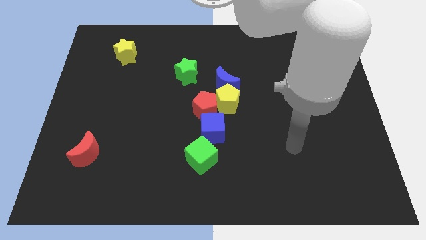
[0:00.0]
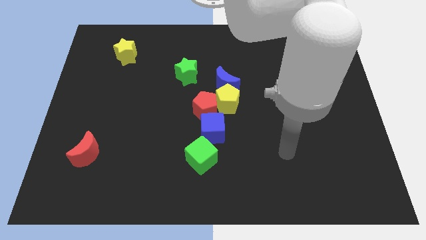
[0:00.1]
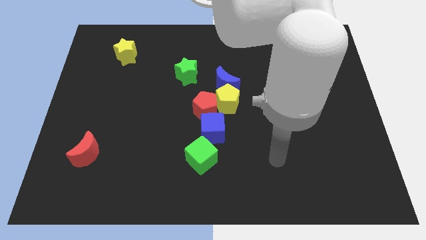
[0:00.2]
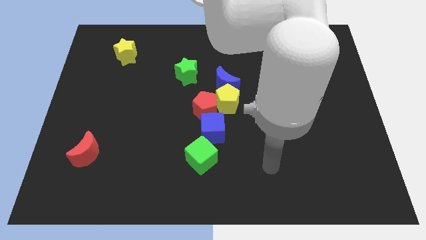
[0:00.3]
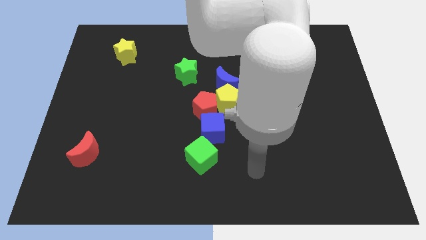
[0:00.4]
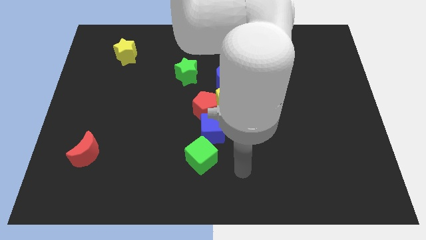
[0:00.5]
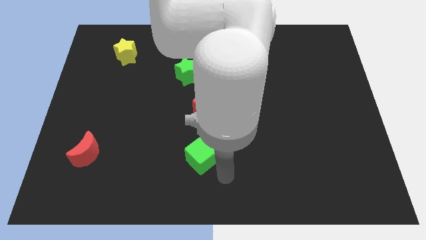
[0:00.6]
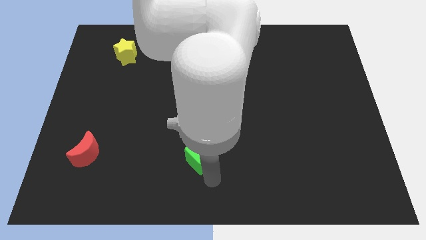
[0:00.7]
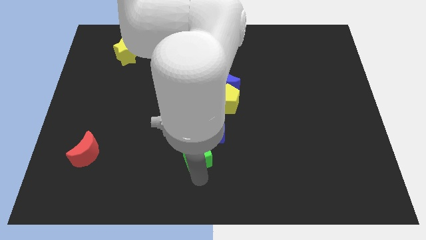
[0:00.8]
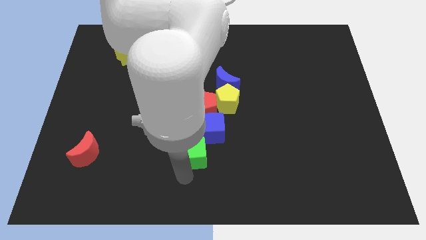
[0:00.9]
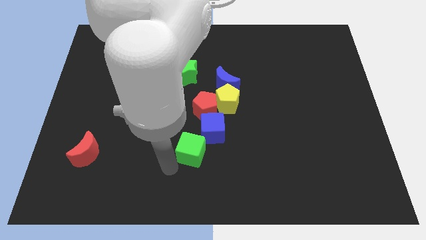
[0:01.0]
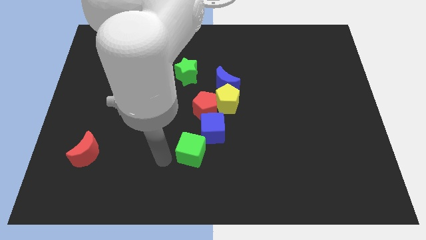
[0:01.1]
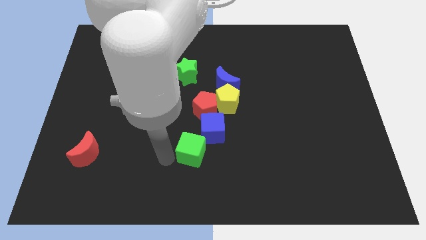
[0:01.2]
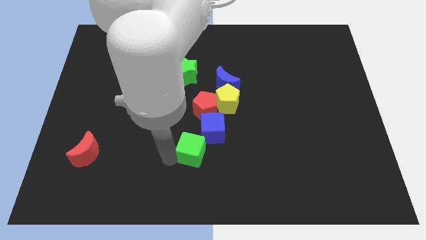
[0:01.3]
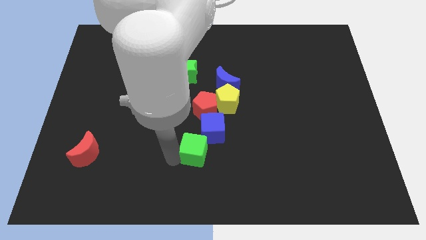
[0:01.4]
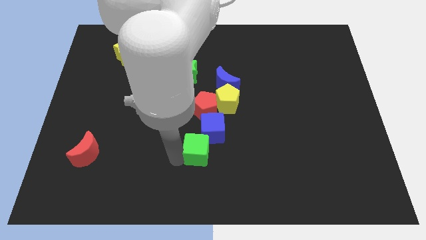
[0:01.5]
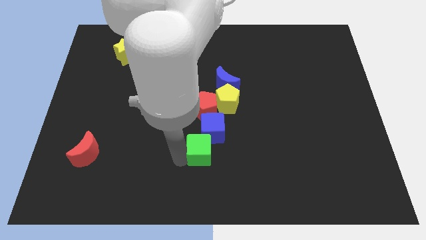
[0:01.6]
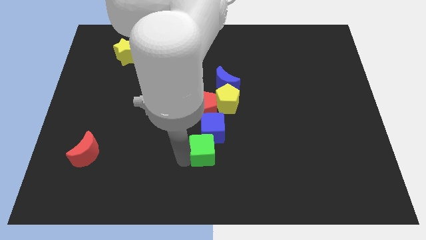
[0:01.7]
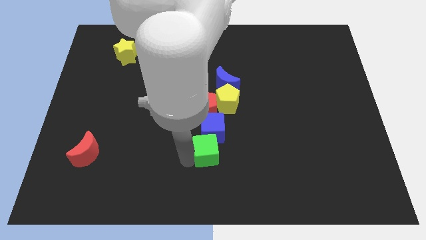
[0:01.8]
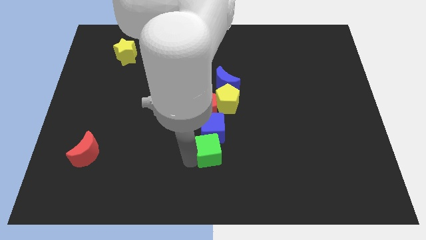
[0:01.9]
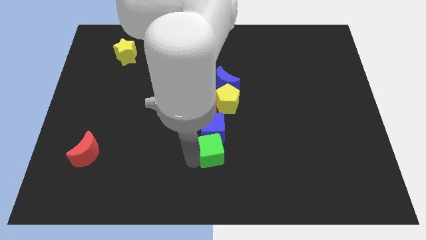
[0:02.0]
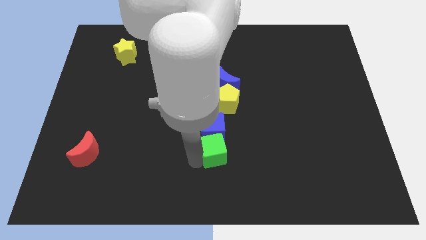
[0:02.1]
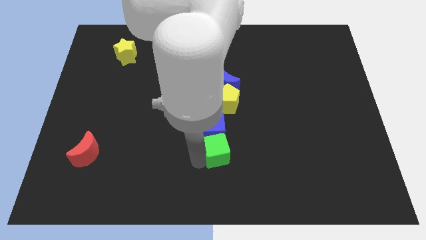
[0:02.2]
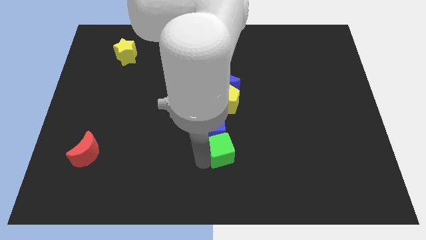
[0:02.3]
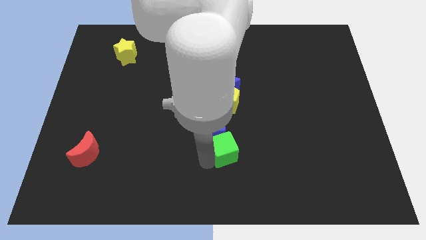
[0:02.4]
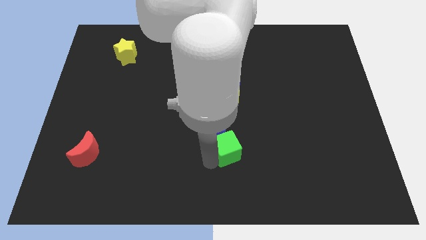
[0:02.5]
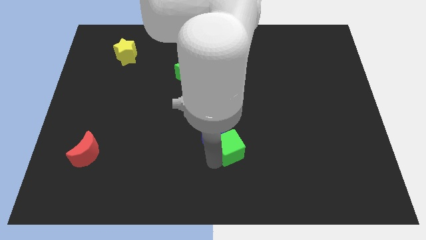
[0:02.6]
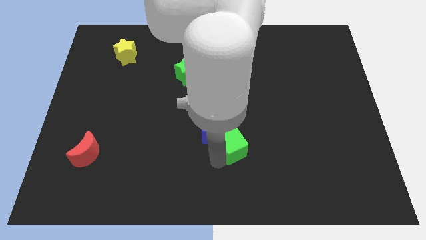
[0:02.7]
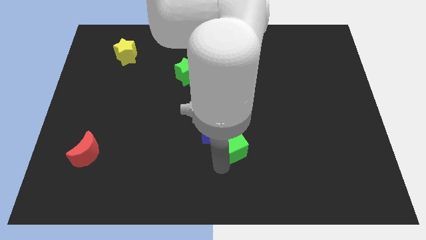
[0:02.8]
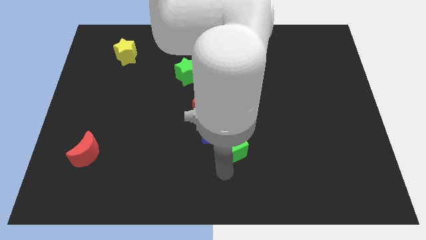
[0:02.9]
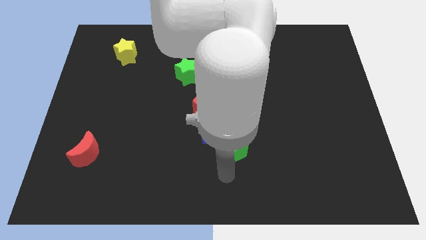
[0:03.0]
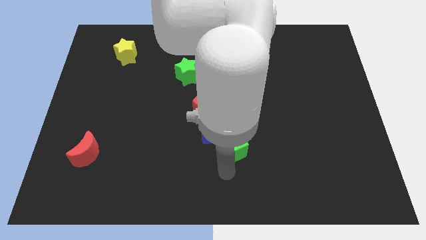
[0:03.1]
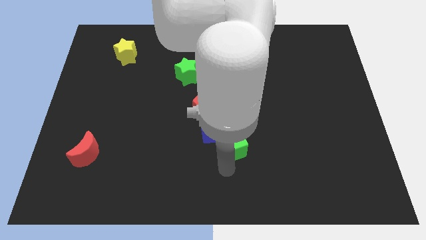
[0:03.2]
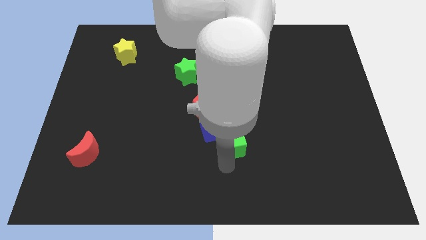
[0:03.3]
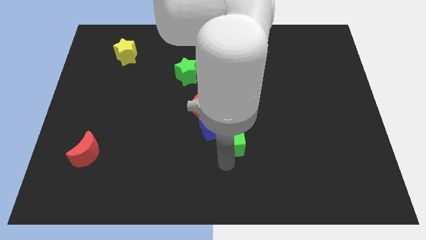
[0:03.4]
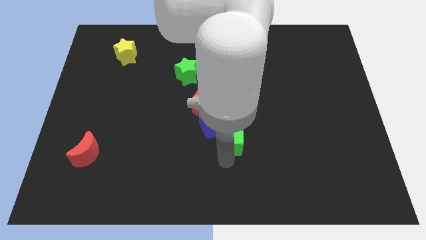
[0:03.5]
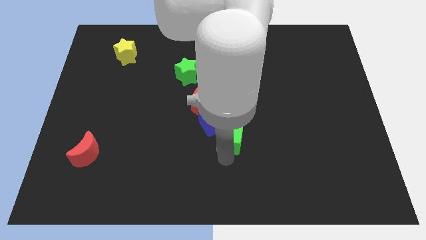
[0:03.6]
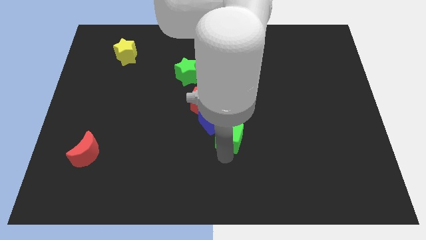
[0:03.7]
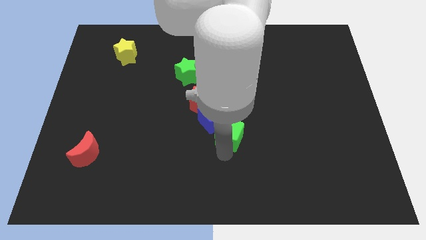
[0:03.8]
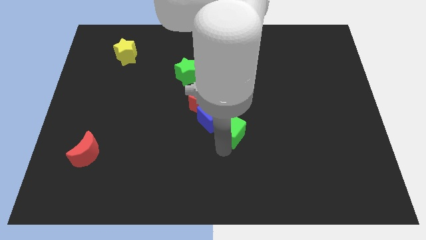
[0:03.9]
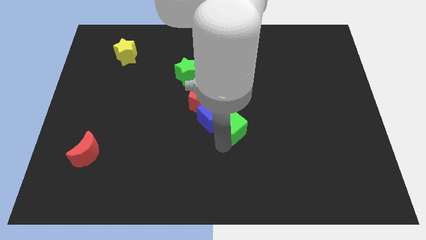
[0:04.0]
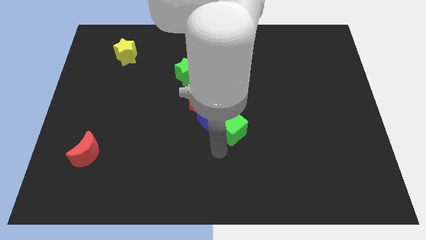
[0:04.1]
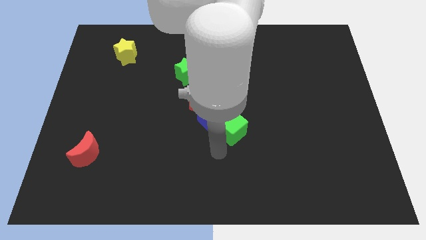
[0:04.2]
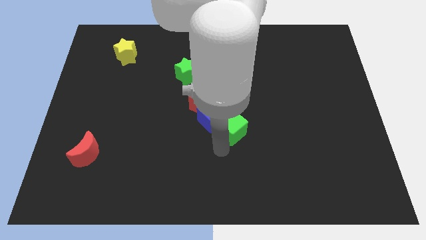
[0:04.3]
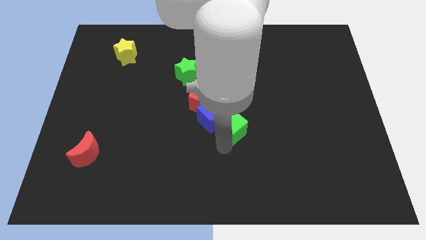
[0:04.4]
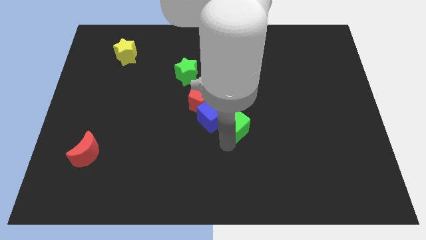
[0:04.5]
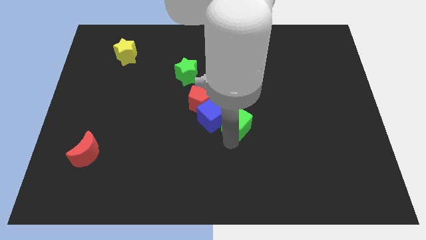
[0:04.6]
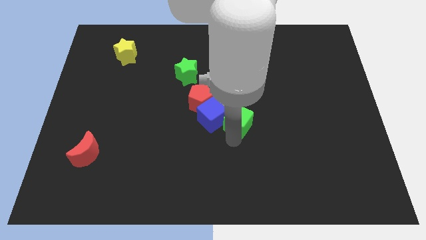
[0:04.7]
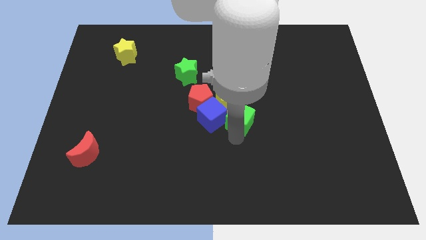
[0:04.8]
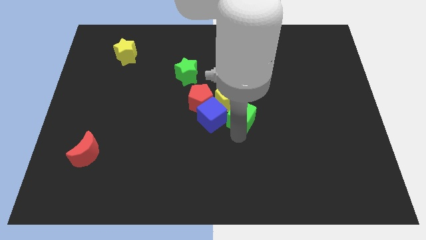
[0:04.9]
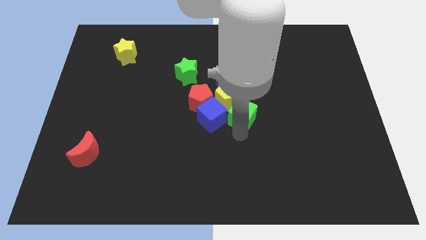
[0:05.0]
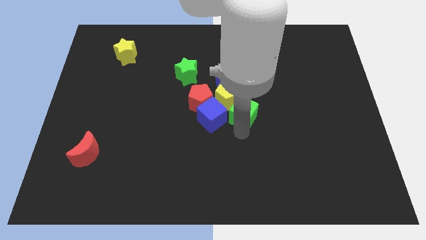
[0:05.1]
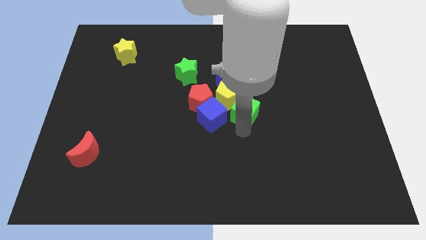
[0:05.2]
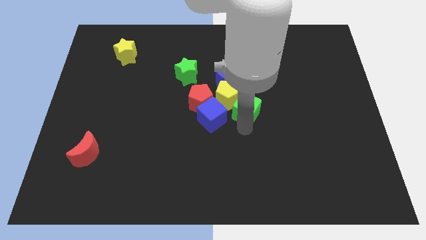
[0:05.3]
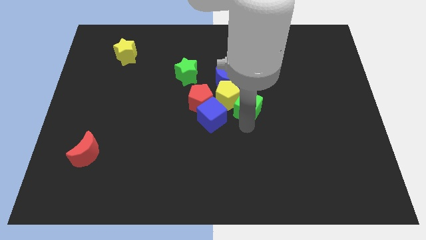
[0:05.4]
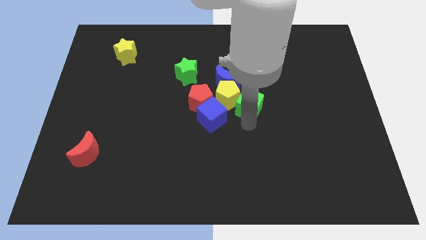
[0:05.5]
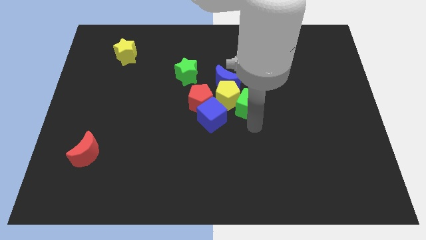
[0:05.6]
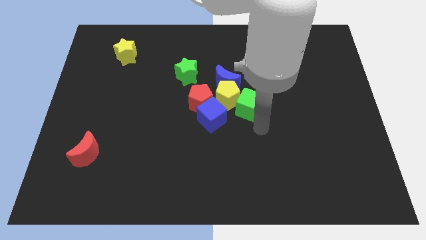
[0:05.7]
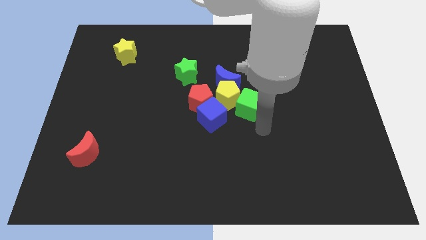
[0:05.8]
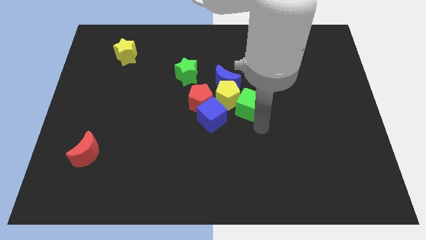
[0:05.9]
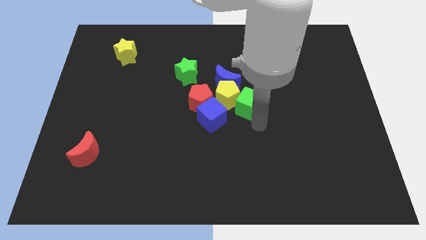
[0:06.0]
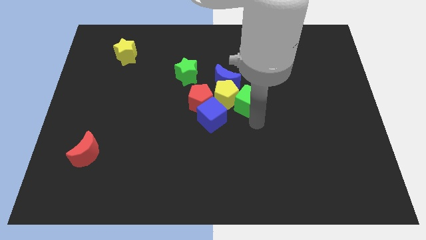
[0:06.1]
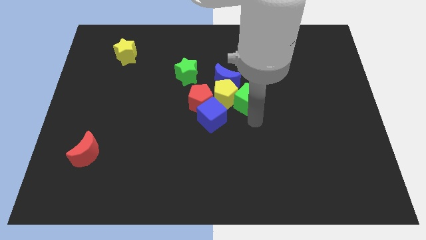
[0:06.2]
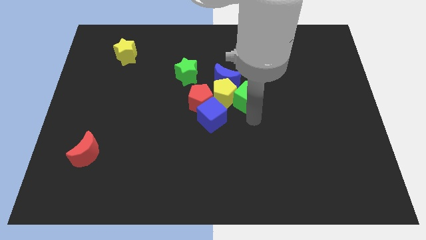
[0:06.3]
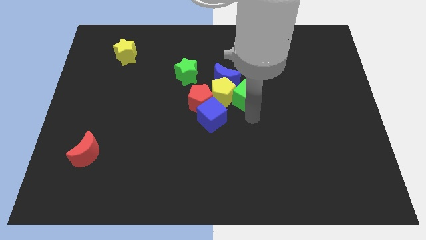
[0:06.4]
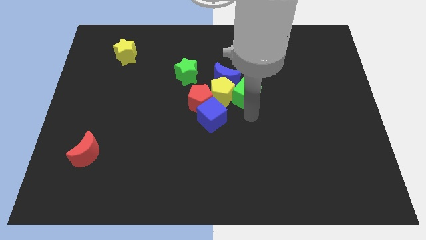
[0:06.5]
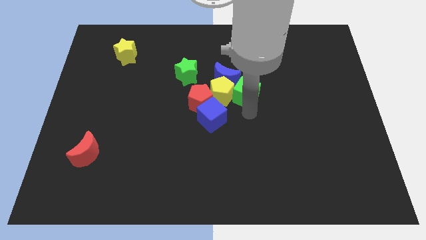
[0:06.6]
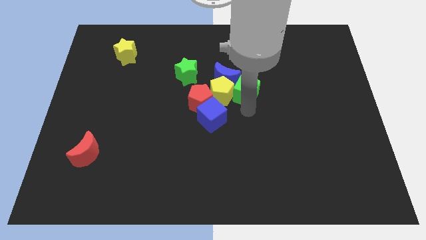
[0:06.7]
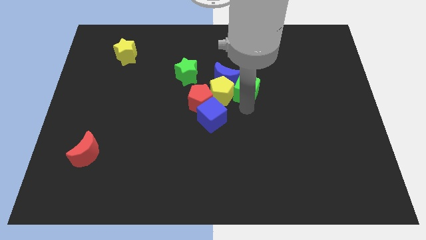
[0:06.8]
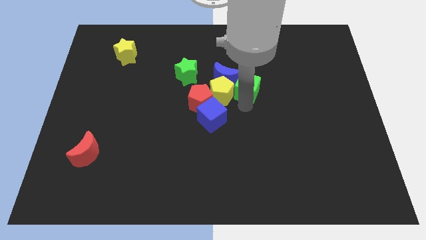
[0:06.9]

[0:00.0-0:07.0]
move the green cube to the blue moon
